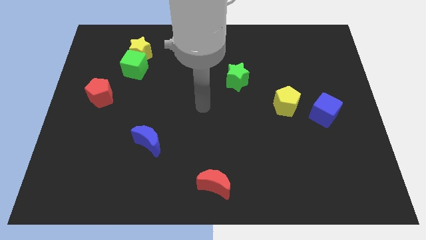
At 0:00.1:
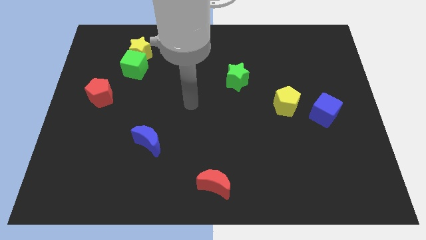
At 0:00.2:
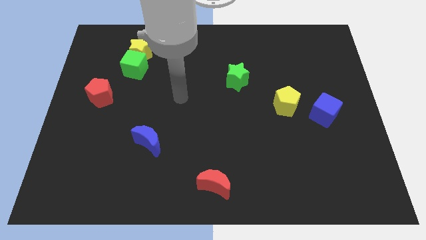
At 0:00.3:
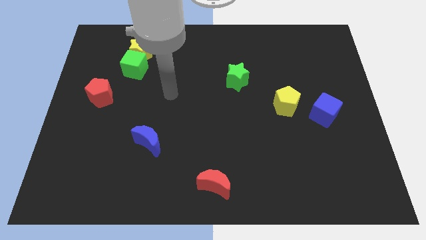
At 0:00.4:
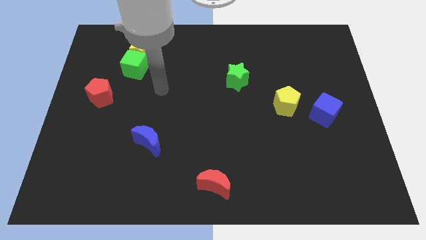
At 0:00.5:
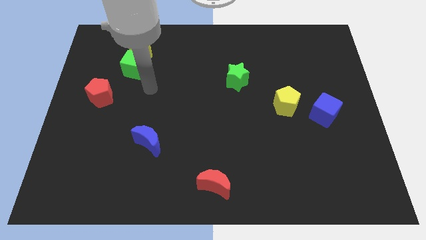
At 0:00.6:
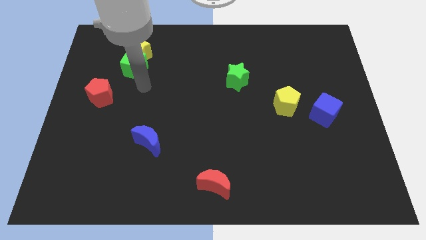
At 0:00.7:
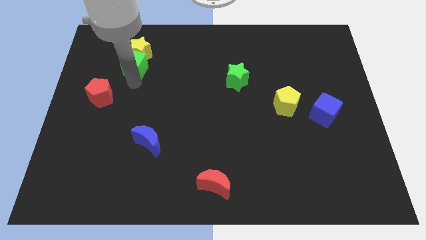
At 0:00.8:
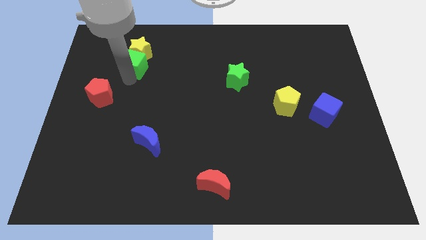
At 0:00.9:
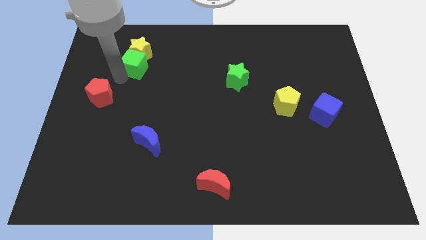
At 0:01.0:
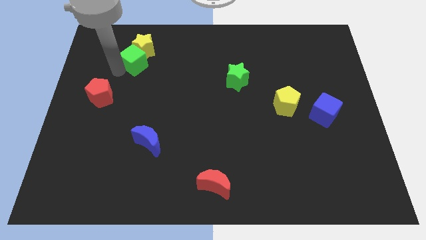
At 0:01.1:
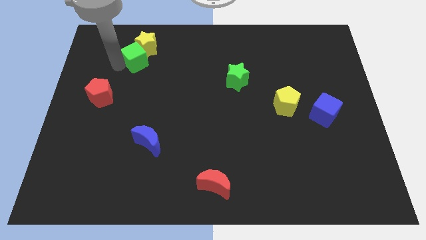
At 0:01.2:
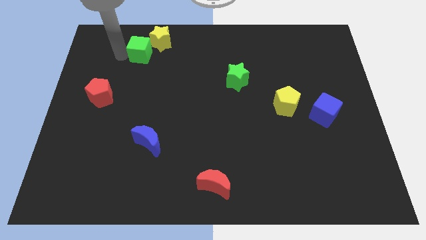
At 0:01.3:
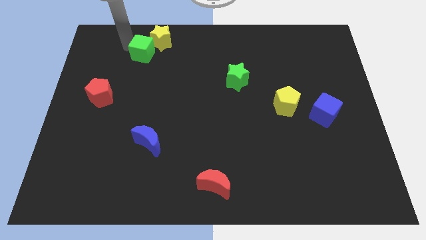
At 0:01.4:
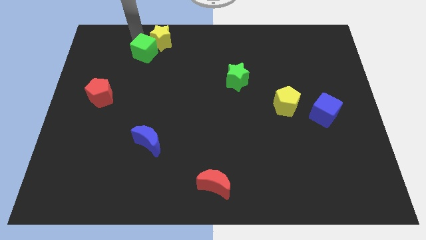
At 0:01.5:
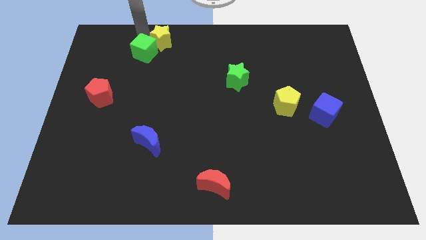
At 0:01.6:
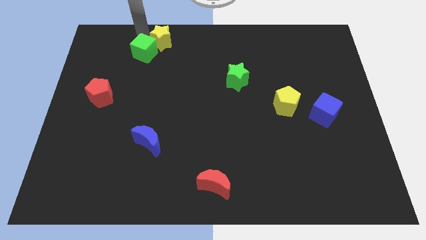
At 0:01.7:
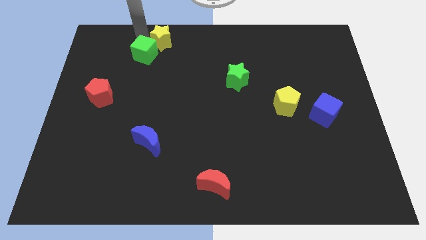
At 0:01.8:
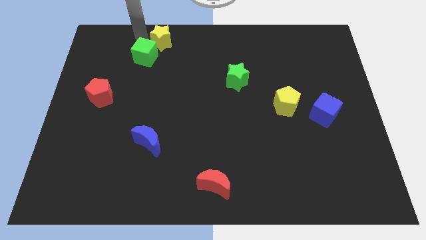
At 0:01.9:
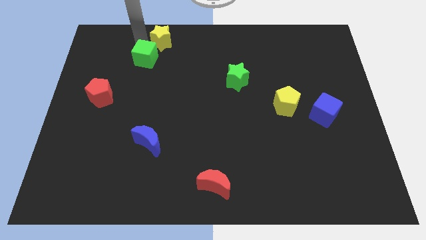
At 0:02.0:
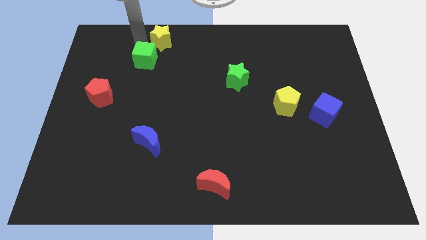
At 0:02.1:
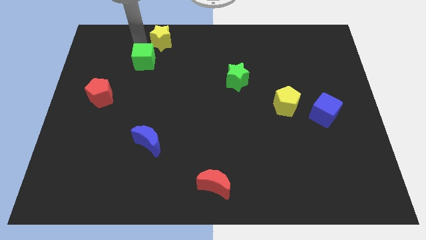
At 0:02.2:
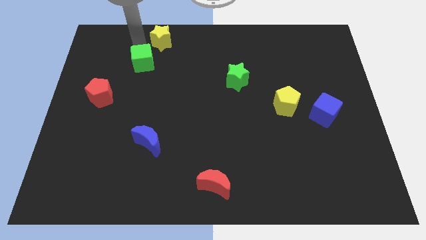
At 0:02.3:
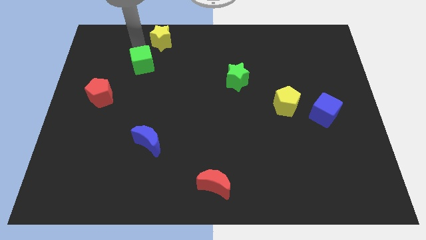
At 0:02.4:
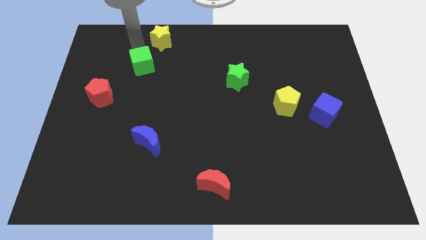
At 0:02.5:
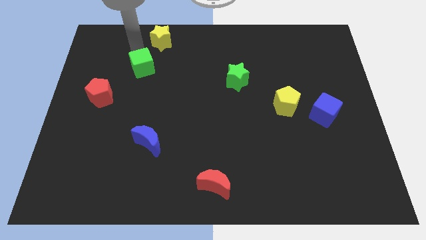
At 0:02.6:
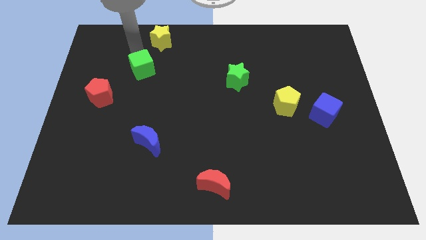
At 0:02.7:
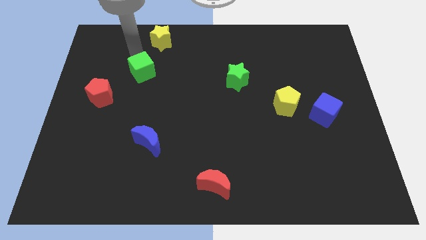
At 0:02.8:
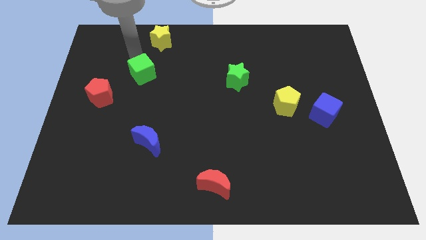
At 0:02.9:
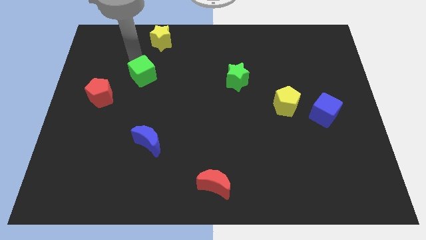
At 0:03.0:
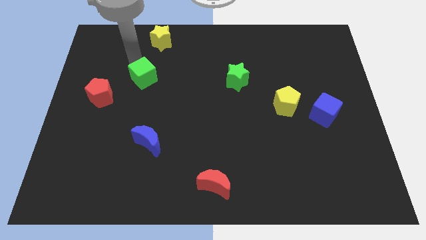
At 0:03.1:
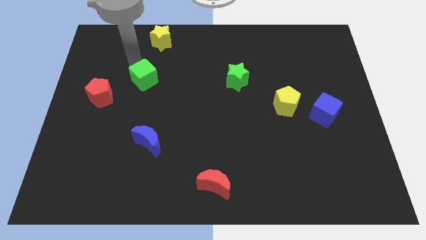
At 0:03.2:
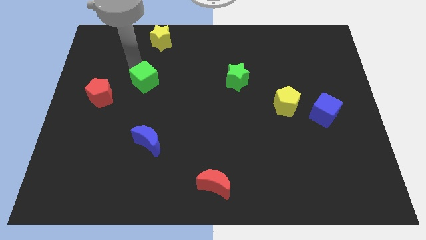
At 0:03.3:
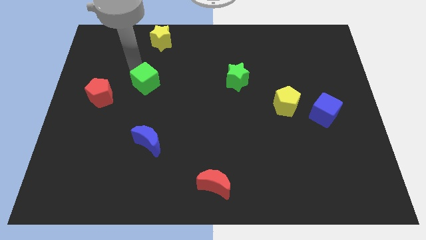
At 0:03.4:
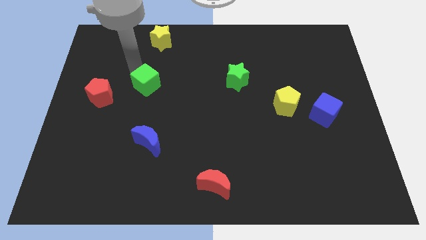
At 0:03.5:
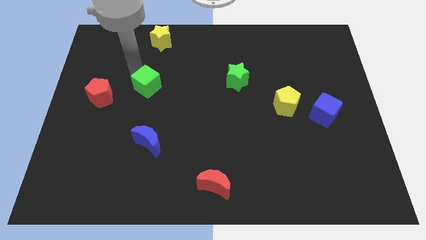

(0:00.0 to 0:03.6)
slightly push the green cube down and to the right

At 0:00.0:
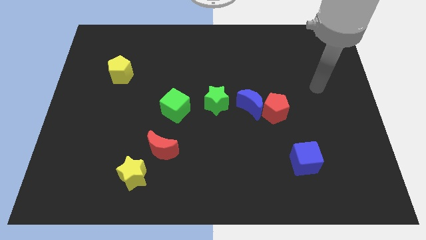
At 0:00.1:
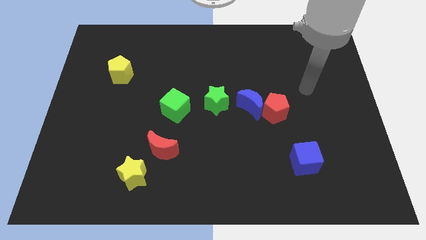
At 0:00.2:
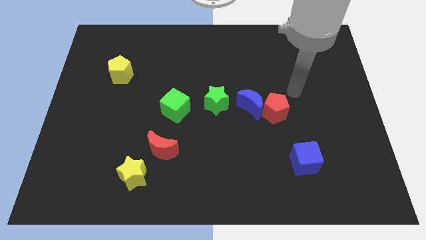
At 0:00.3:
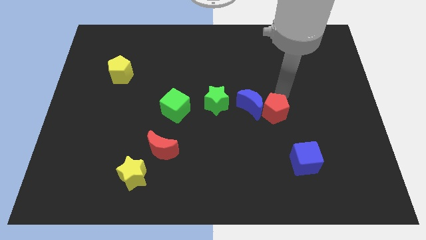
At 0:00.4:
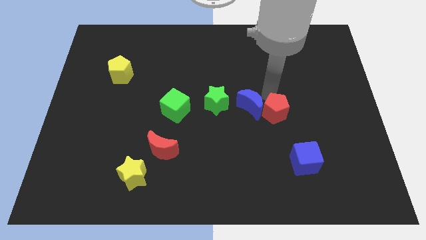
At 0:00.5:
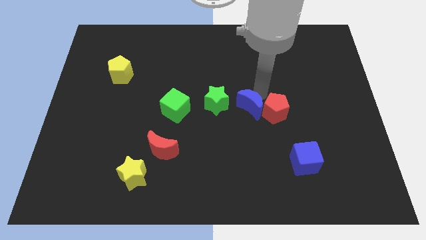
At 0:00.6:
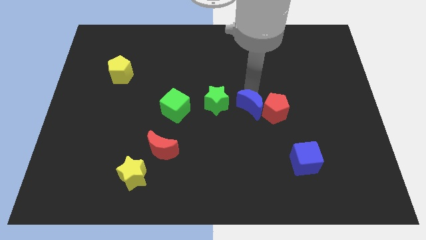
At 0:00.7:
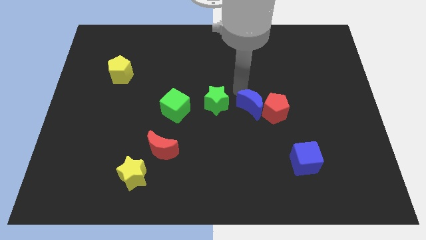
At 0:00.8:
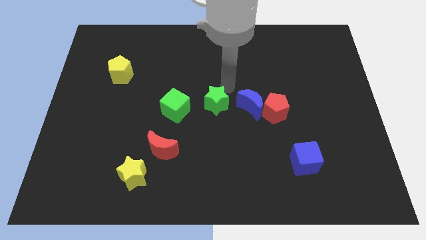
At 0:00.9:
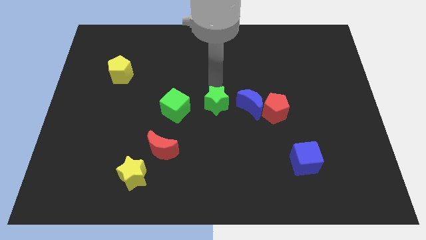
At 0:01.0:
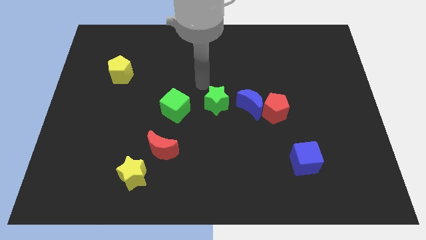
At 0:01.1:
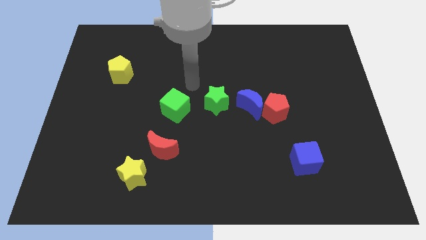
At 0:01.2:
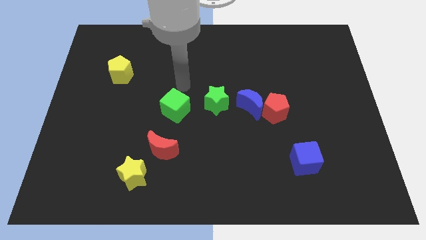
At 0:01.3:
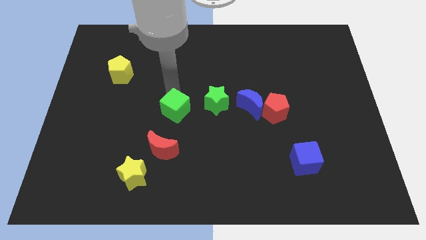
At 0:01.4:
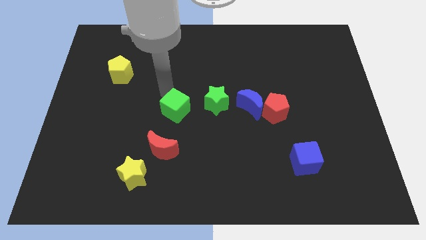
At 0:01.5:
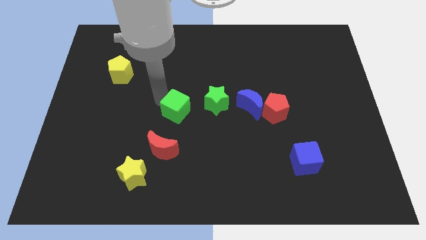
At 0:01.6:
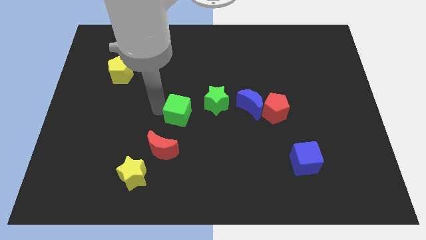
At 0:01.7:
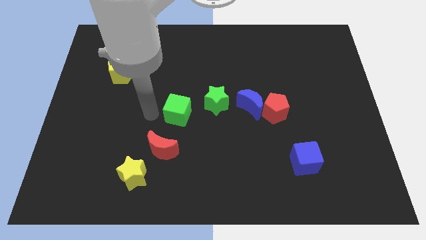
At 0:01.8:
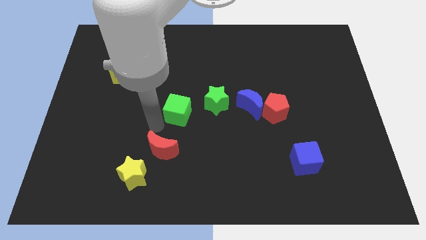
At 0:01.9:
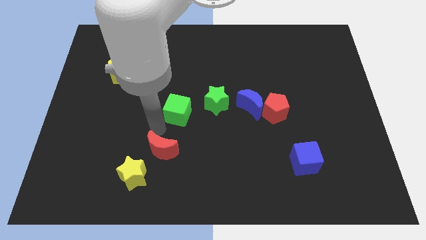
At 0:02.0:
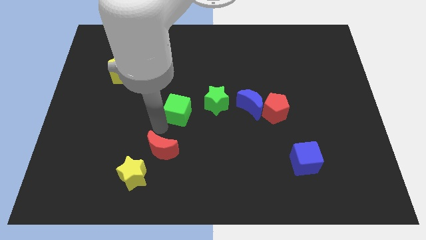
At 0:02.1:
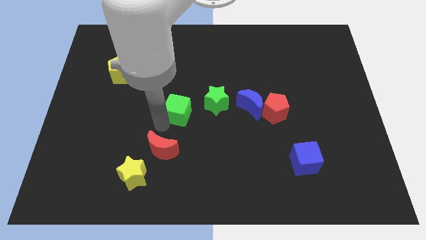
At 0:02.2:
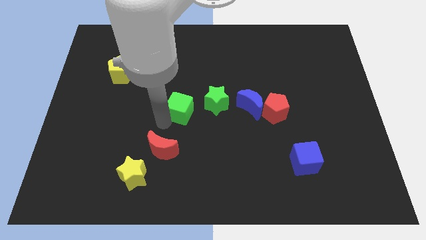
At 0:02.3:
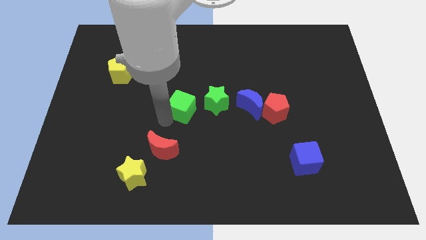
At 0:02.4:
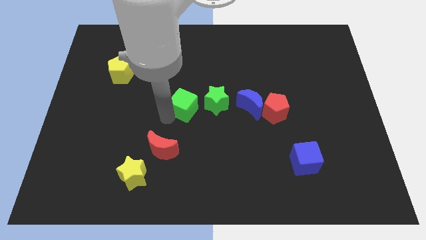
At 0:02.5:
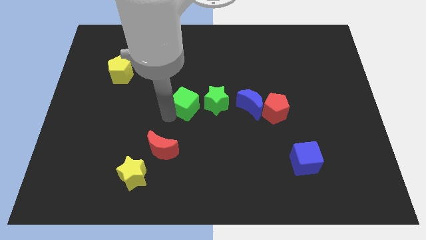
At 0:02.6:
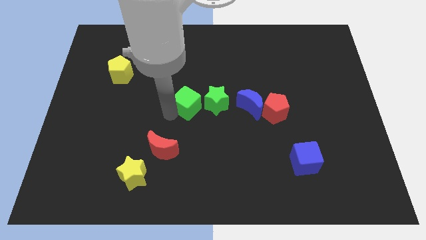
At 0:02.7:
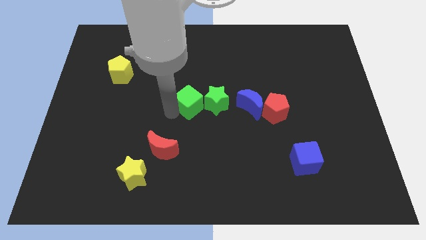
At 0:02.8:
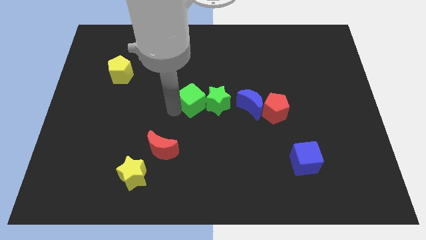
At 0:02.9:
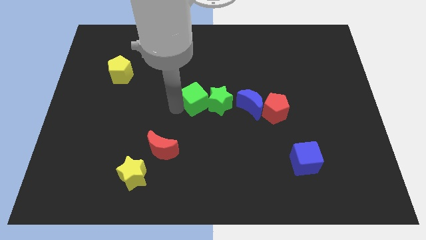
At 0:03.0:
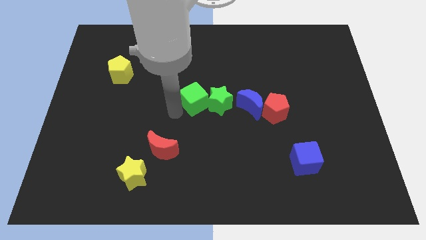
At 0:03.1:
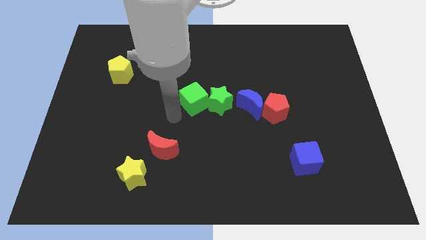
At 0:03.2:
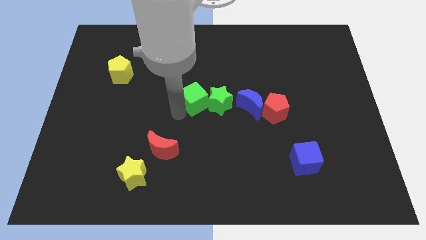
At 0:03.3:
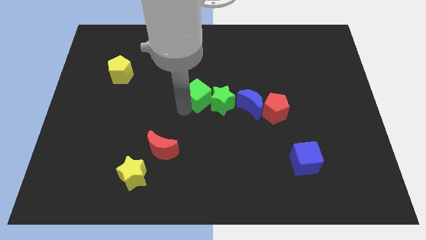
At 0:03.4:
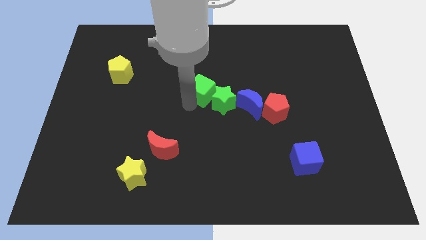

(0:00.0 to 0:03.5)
slightly slide the green cube upwards and then right

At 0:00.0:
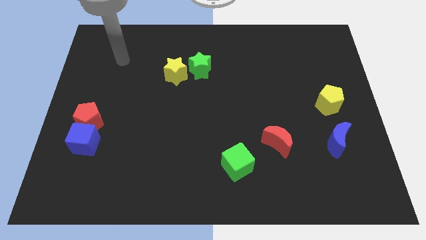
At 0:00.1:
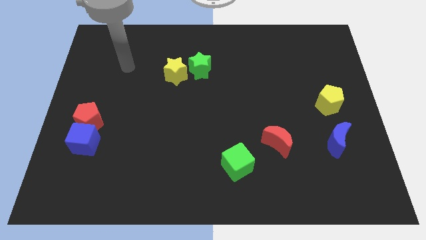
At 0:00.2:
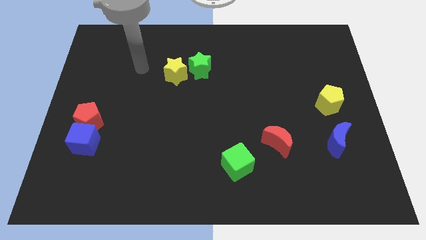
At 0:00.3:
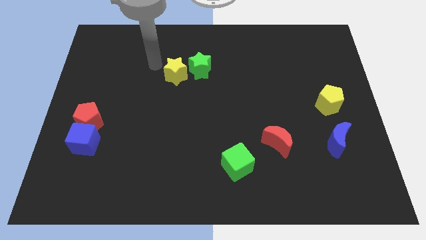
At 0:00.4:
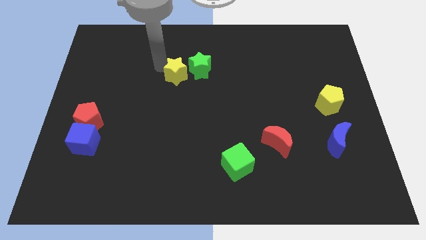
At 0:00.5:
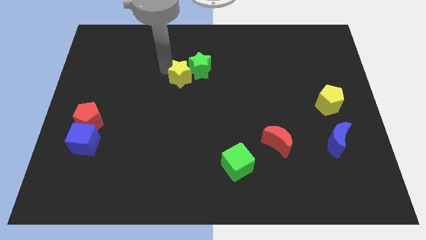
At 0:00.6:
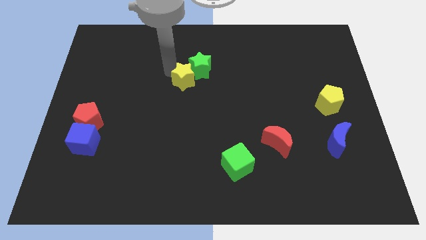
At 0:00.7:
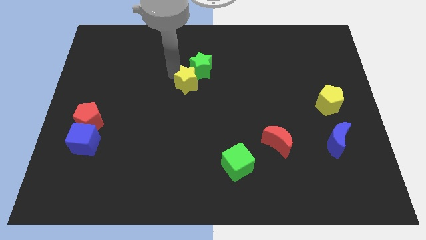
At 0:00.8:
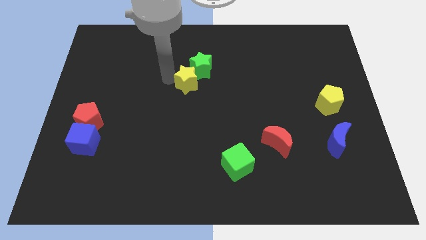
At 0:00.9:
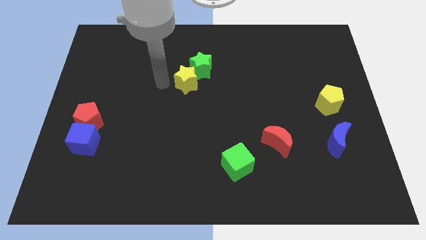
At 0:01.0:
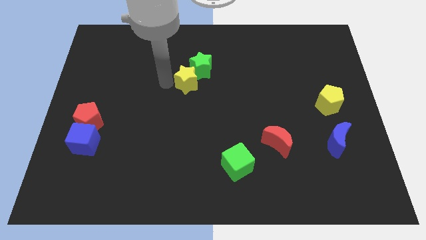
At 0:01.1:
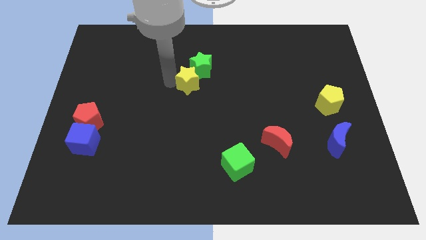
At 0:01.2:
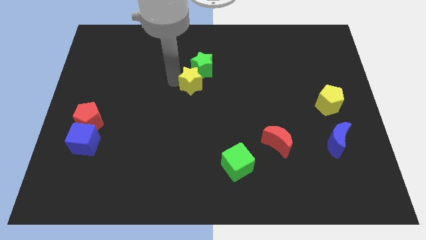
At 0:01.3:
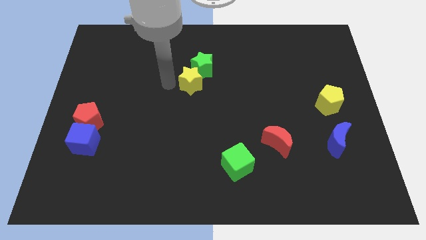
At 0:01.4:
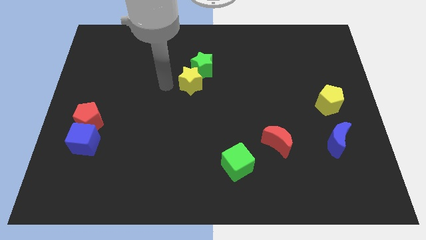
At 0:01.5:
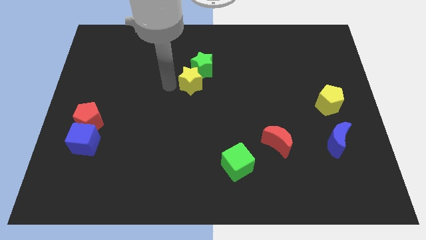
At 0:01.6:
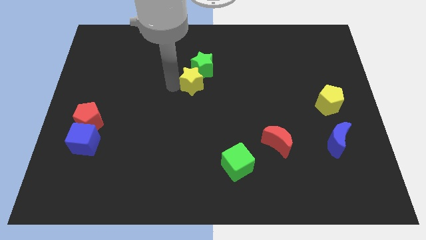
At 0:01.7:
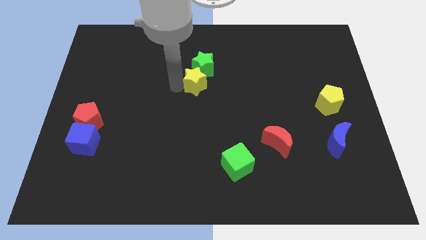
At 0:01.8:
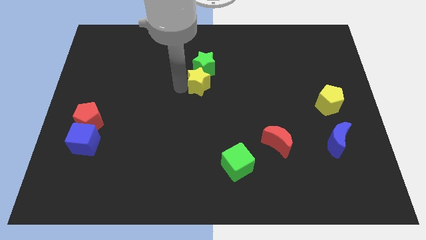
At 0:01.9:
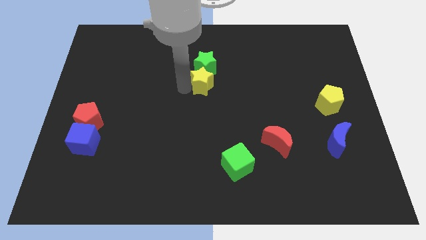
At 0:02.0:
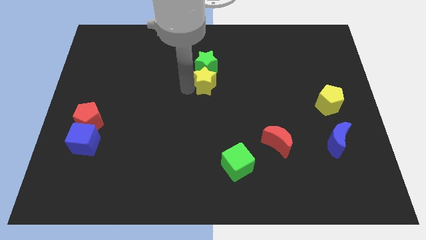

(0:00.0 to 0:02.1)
slide the yellow star to the right slightly
